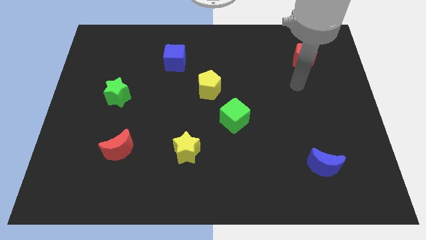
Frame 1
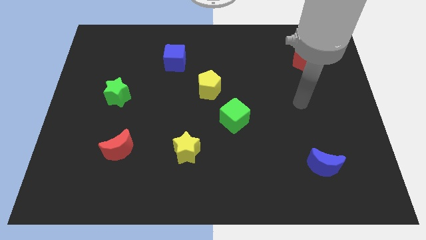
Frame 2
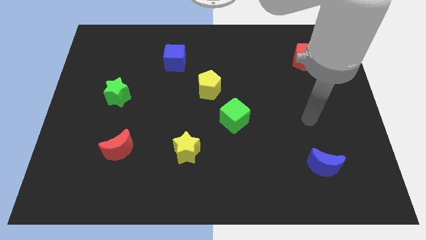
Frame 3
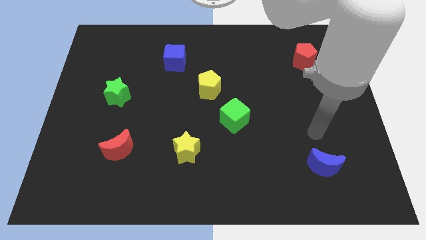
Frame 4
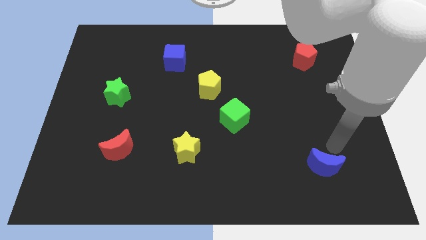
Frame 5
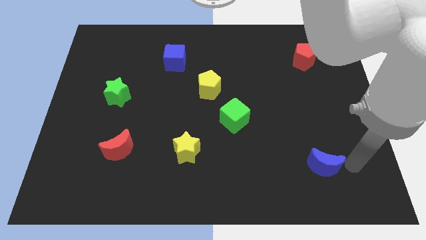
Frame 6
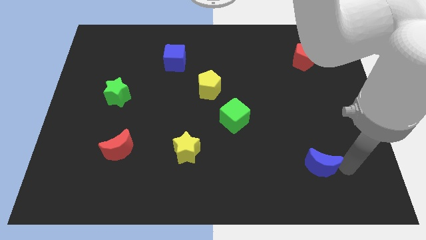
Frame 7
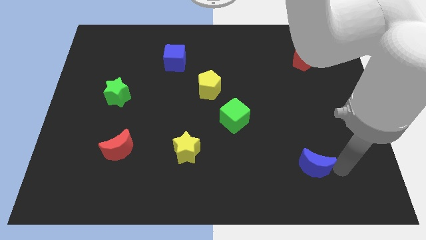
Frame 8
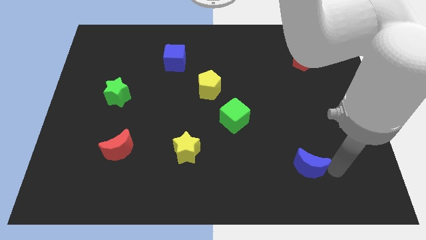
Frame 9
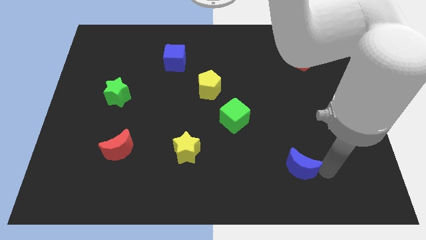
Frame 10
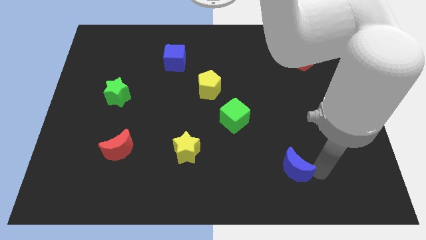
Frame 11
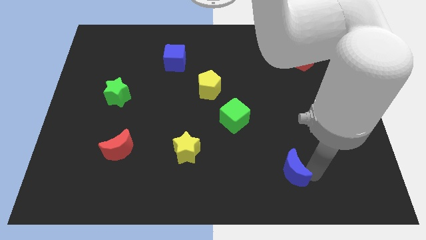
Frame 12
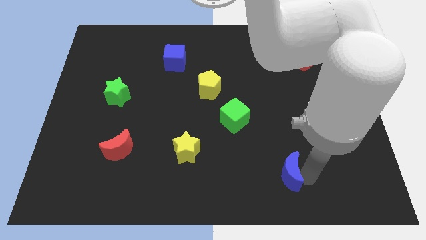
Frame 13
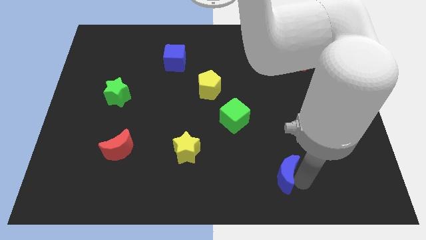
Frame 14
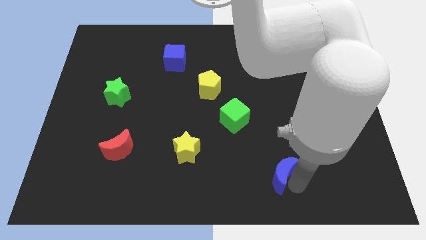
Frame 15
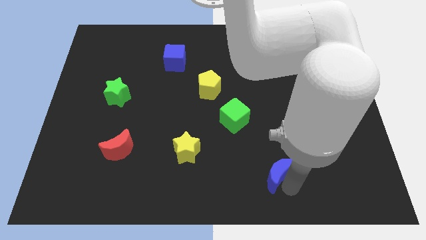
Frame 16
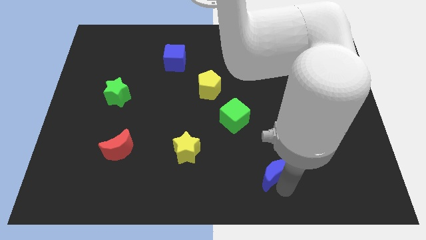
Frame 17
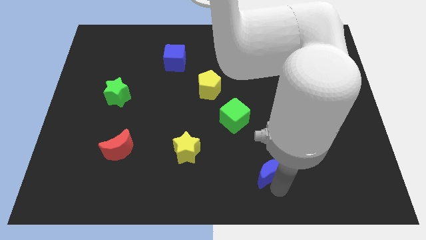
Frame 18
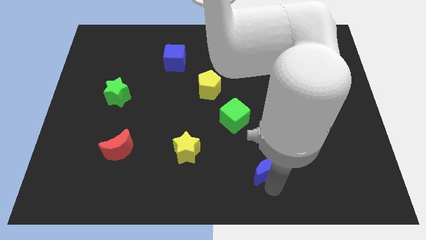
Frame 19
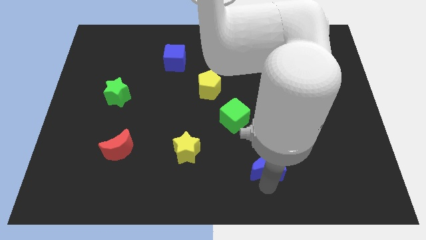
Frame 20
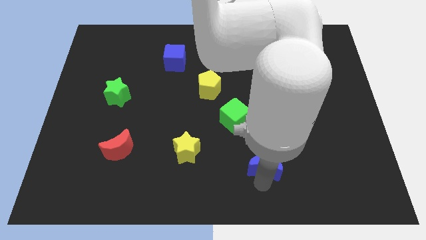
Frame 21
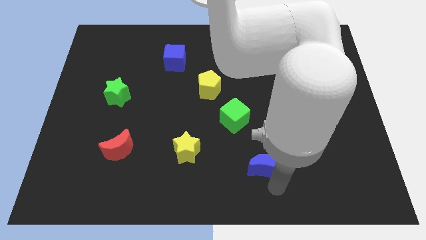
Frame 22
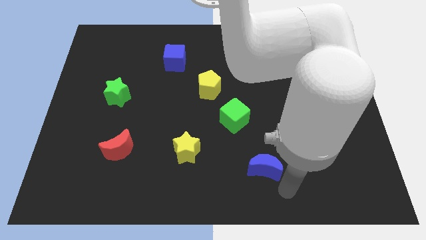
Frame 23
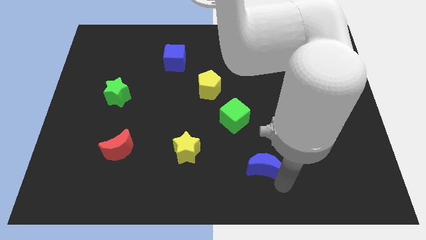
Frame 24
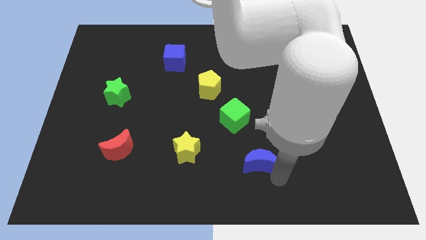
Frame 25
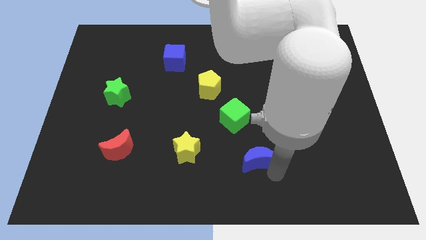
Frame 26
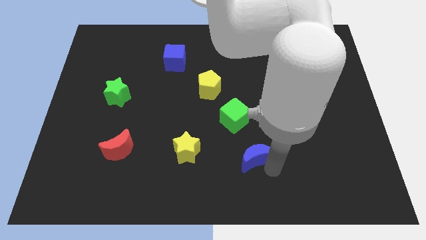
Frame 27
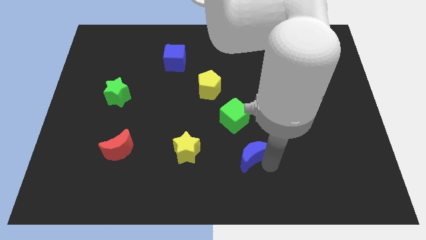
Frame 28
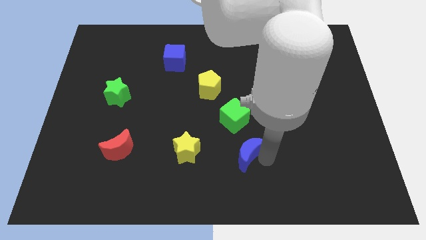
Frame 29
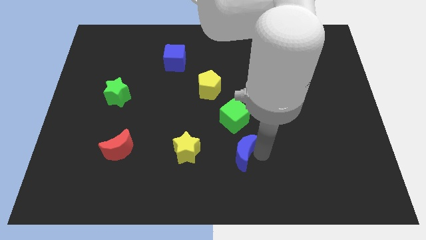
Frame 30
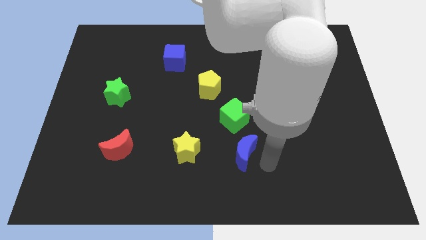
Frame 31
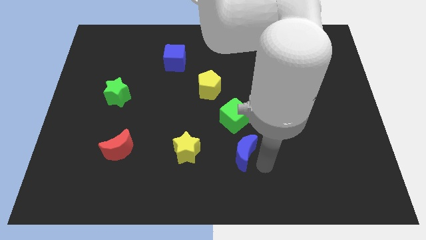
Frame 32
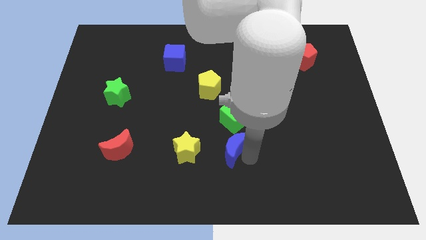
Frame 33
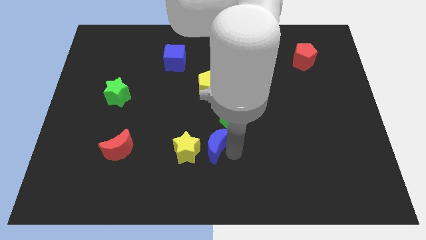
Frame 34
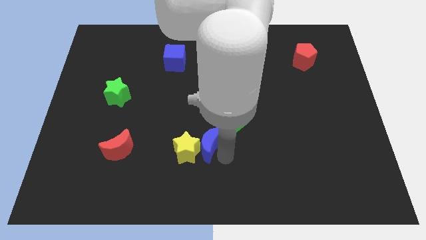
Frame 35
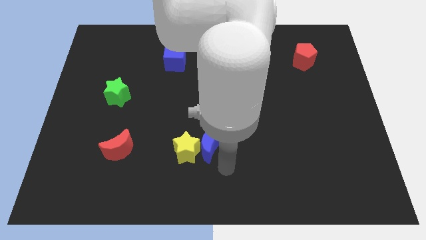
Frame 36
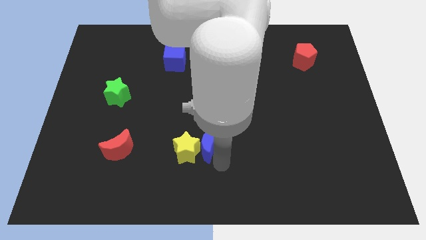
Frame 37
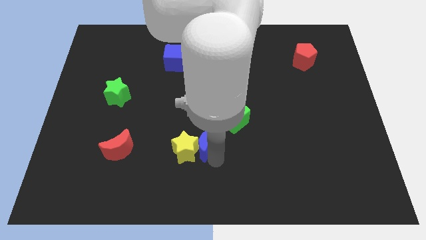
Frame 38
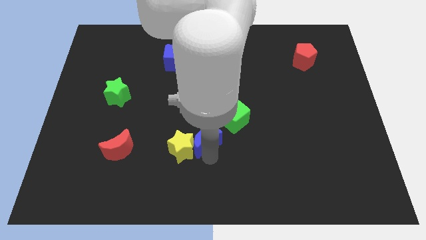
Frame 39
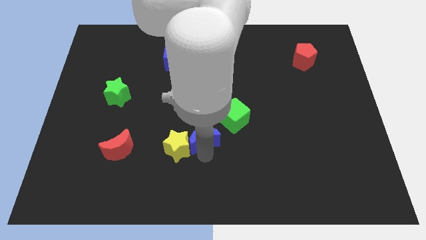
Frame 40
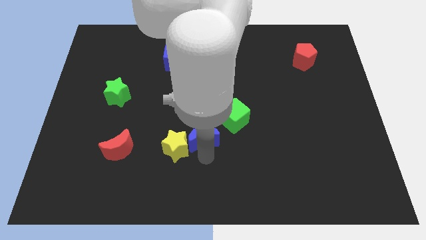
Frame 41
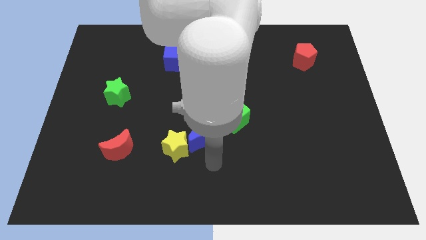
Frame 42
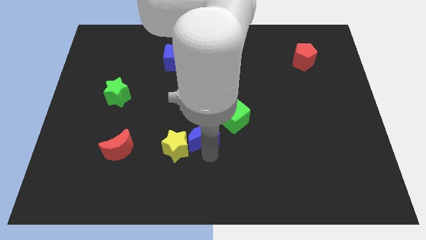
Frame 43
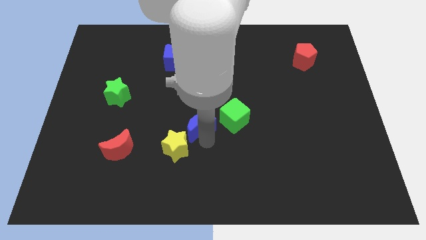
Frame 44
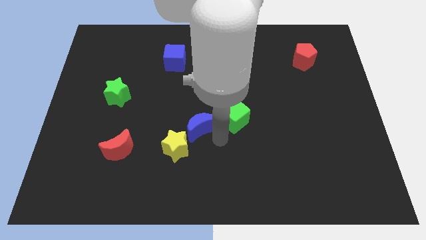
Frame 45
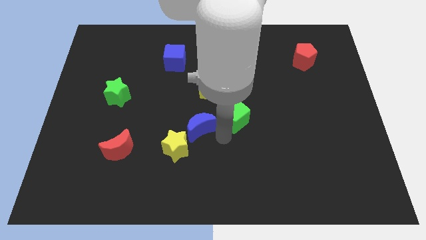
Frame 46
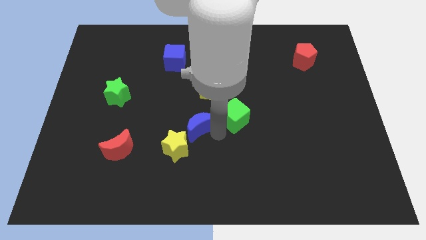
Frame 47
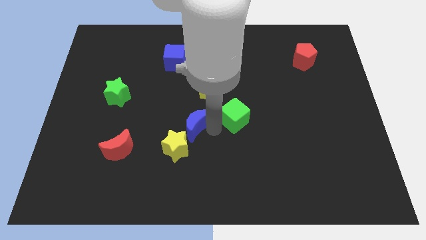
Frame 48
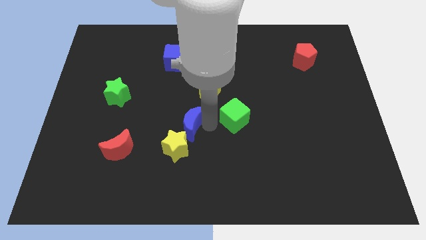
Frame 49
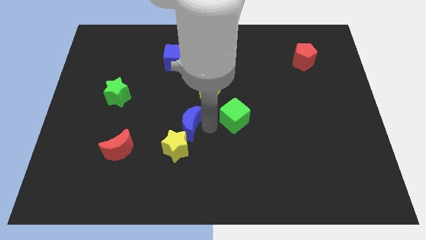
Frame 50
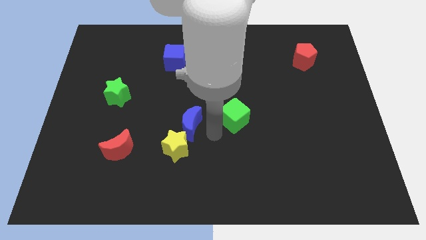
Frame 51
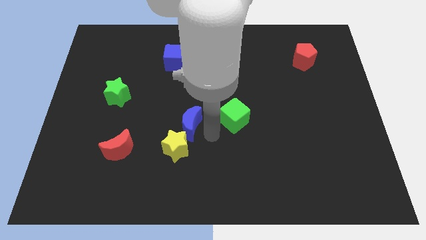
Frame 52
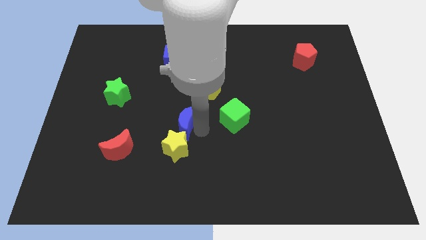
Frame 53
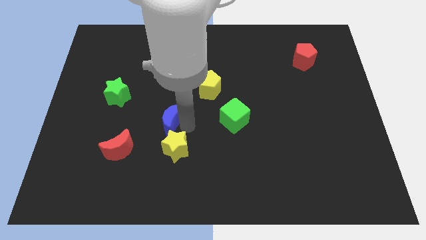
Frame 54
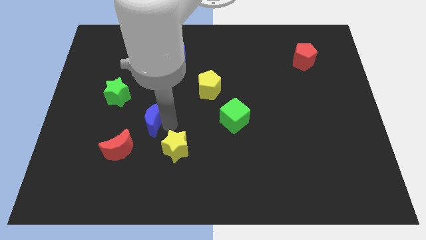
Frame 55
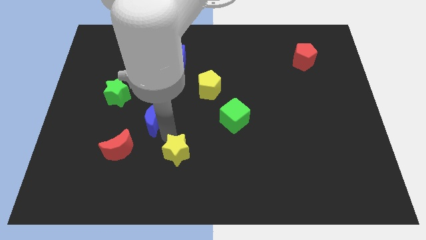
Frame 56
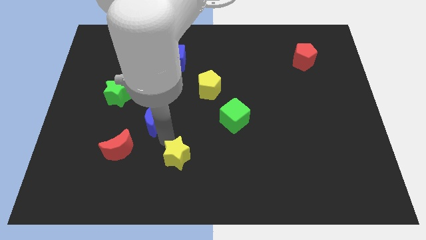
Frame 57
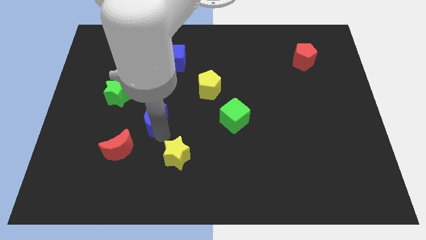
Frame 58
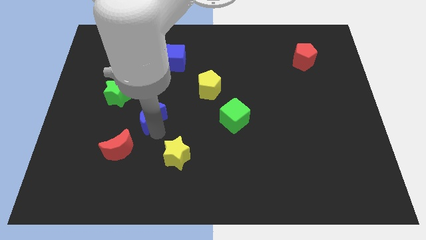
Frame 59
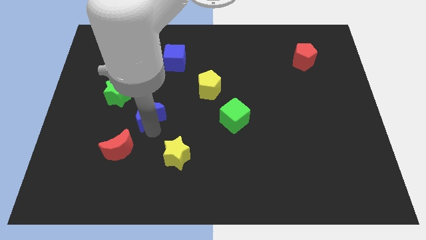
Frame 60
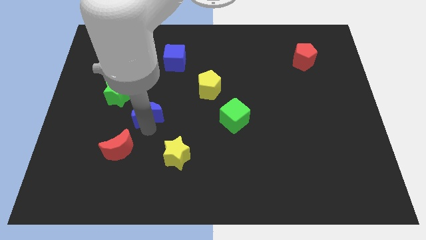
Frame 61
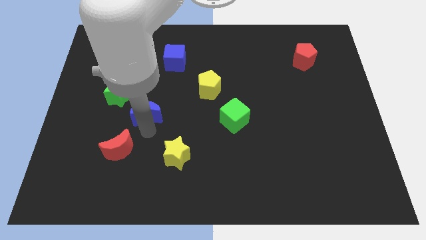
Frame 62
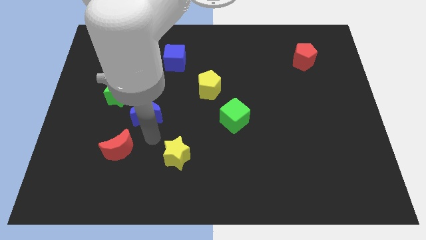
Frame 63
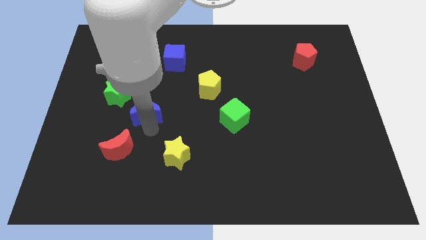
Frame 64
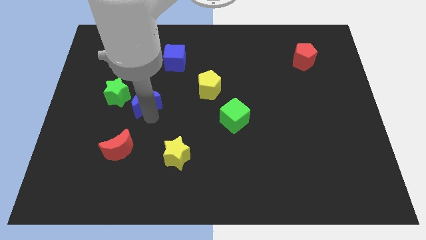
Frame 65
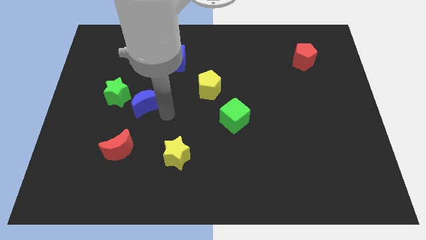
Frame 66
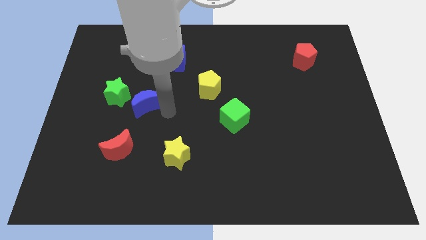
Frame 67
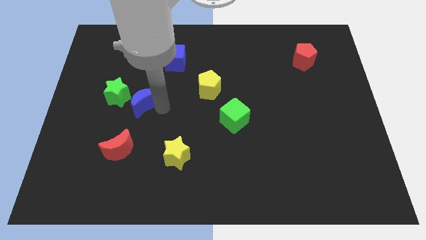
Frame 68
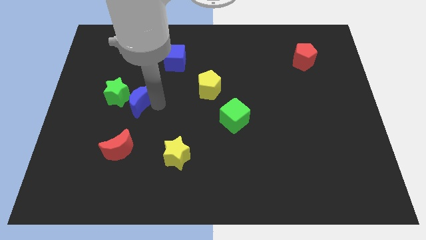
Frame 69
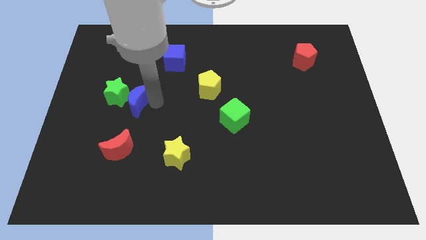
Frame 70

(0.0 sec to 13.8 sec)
put the blue moon to the green star
